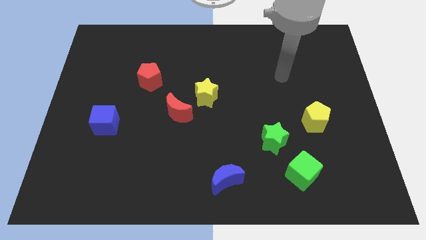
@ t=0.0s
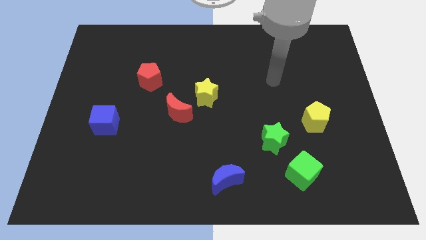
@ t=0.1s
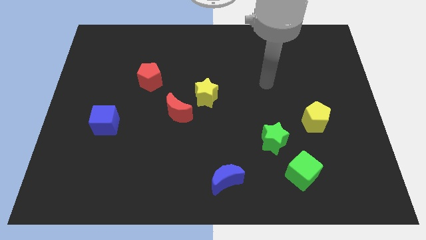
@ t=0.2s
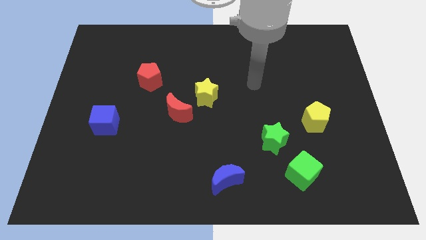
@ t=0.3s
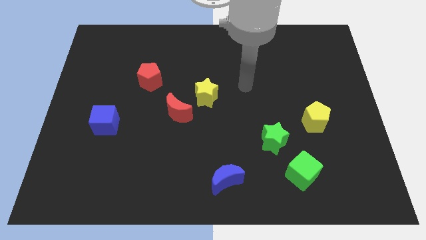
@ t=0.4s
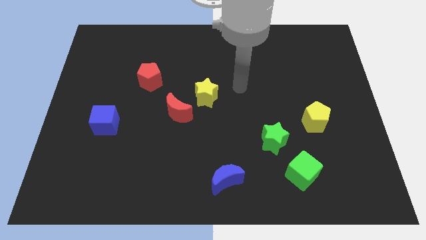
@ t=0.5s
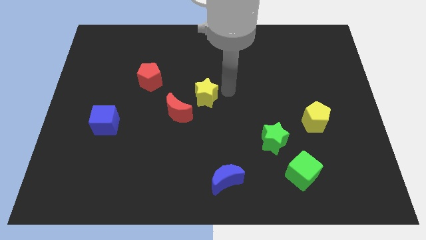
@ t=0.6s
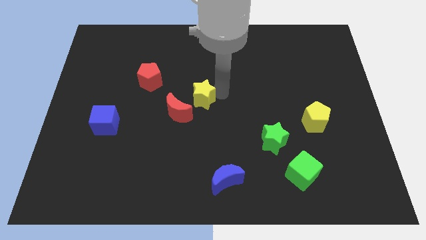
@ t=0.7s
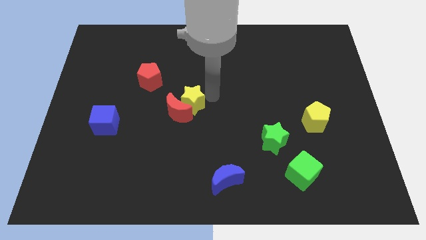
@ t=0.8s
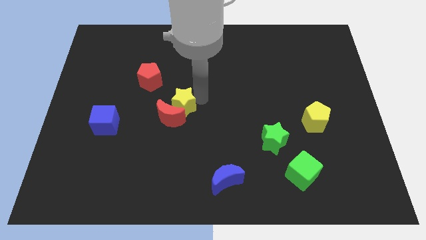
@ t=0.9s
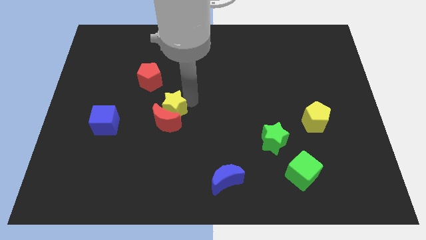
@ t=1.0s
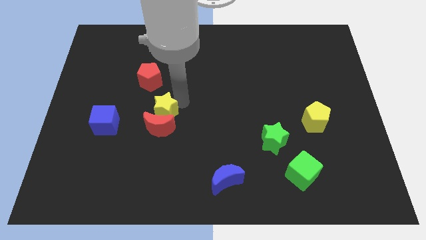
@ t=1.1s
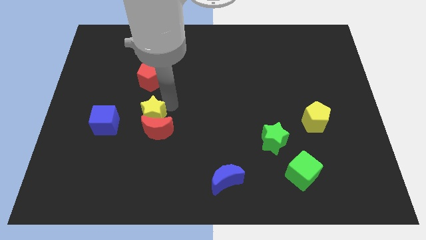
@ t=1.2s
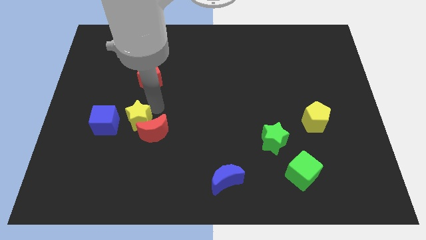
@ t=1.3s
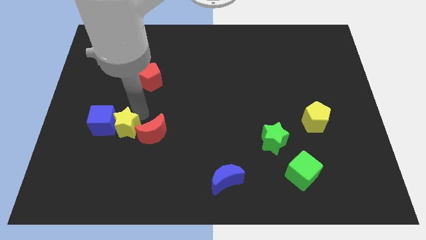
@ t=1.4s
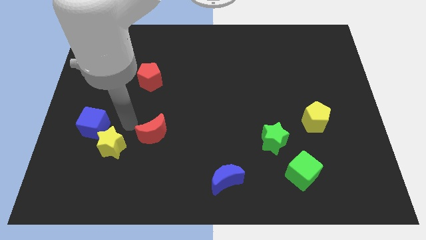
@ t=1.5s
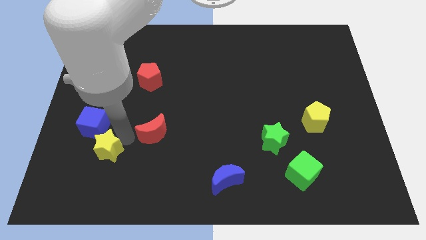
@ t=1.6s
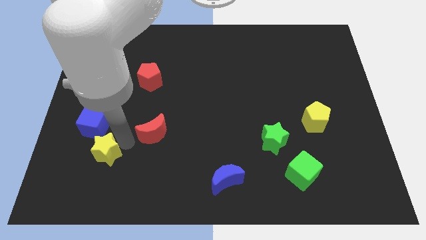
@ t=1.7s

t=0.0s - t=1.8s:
move the red moon away from the yellow star

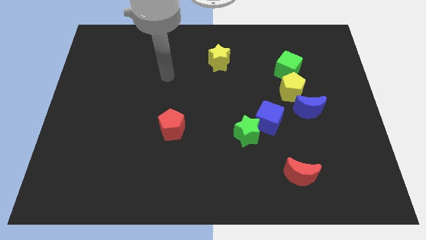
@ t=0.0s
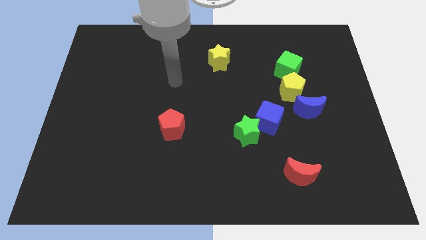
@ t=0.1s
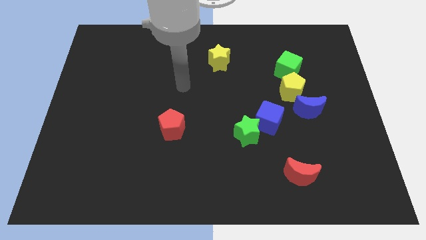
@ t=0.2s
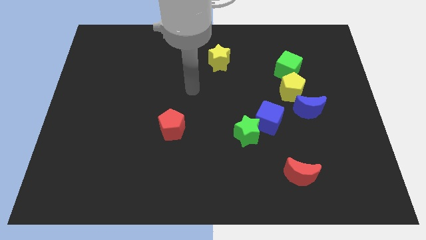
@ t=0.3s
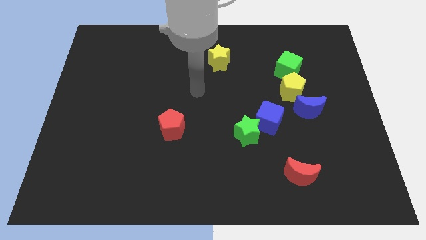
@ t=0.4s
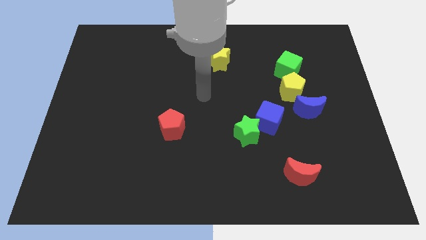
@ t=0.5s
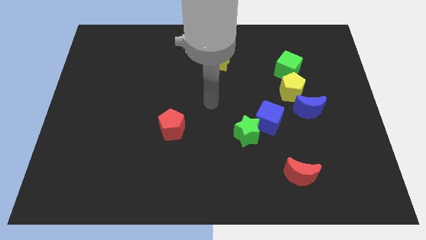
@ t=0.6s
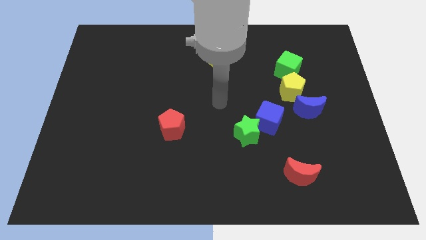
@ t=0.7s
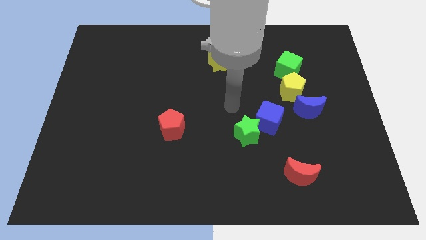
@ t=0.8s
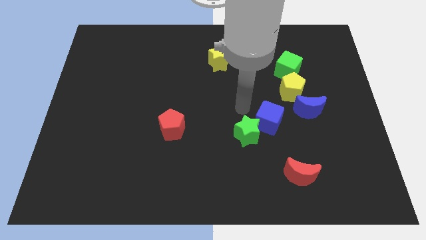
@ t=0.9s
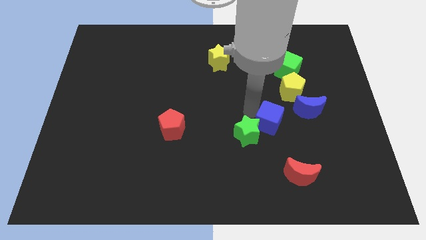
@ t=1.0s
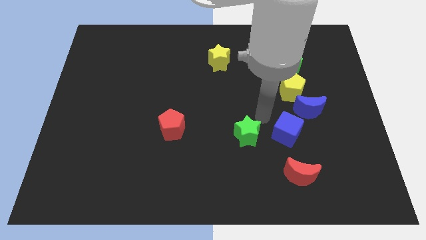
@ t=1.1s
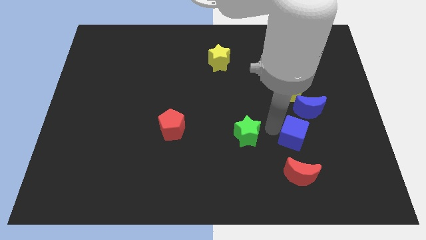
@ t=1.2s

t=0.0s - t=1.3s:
pull the green star apart from the blue cube

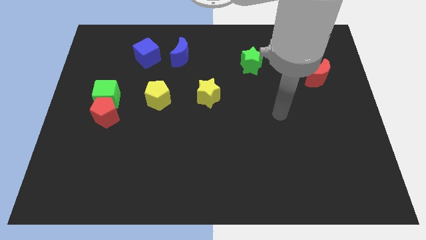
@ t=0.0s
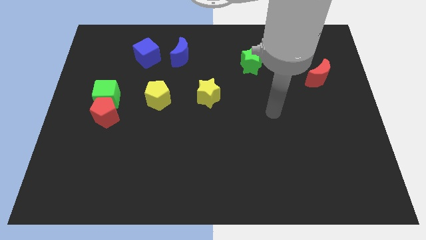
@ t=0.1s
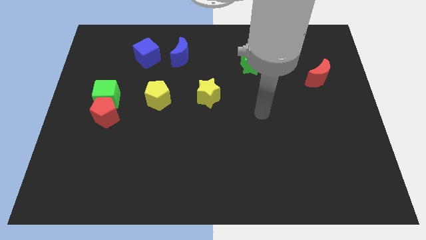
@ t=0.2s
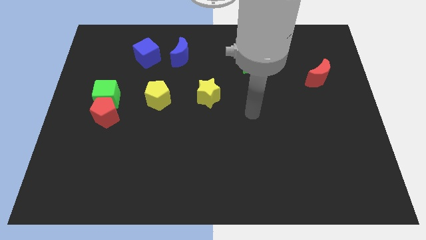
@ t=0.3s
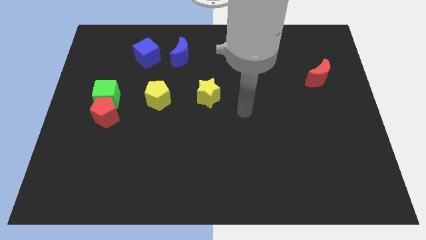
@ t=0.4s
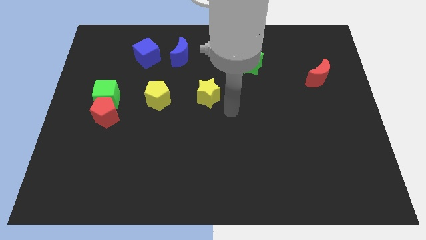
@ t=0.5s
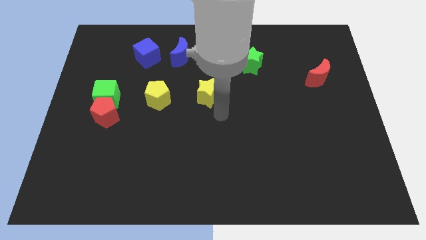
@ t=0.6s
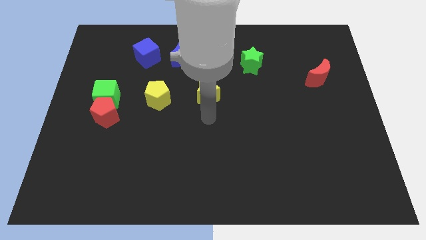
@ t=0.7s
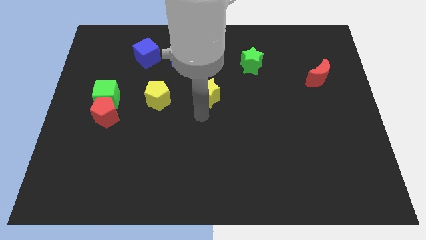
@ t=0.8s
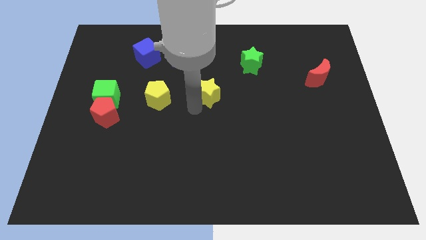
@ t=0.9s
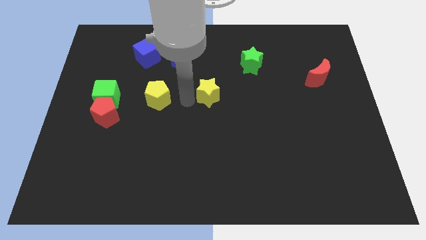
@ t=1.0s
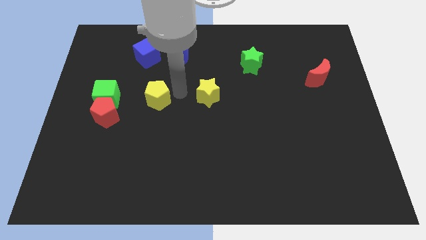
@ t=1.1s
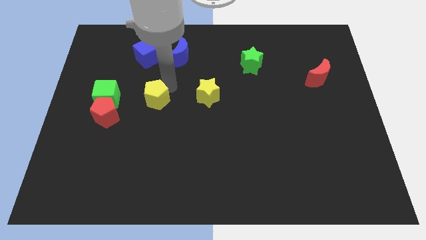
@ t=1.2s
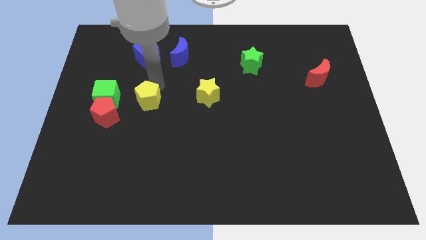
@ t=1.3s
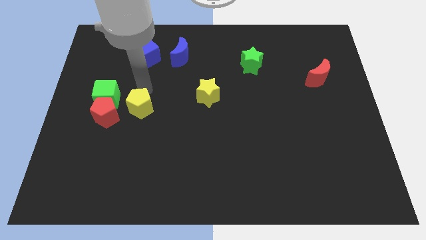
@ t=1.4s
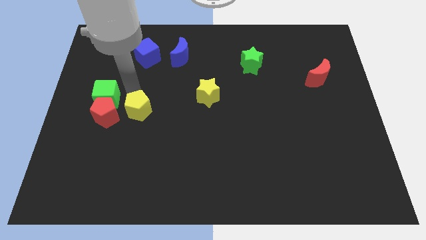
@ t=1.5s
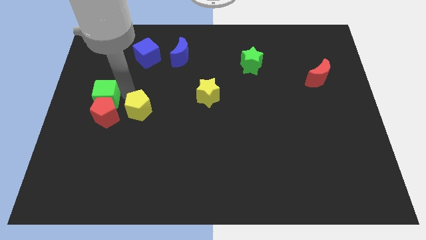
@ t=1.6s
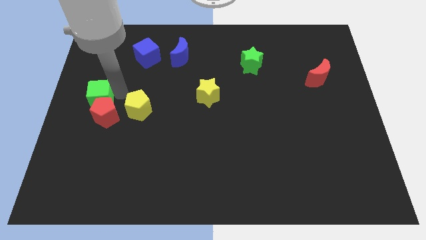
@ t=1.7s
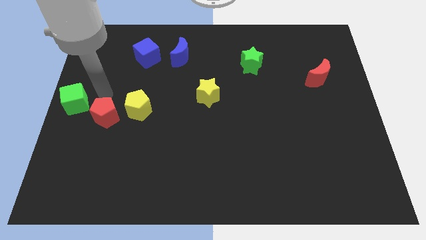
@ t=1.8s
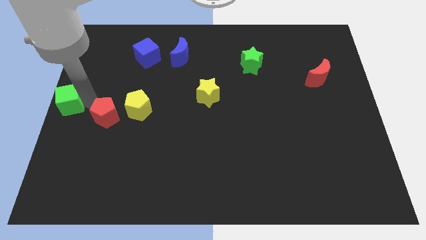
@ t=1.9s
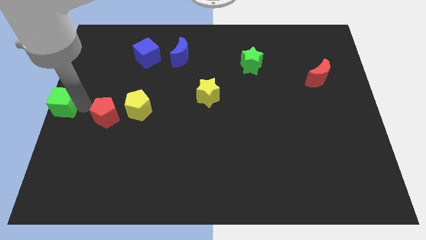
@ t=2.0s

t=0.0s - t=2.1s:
pull the red pentagon apart from the green cube

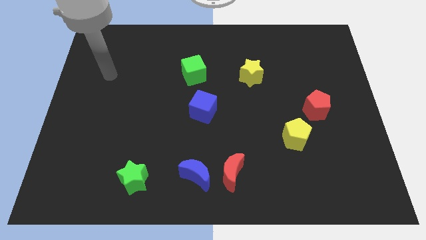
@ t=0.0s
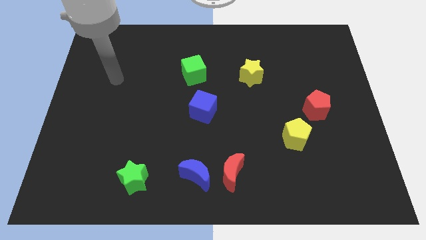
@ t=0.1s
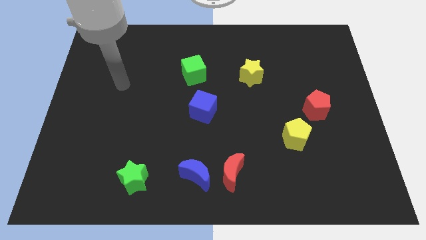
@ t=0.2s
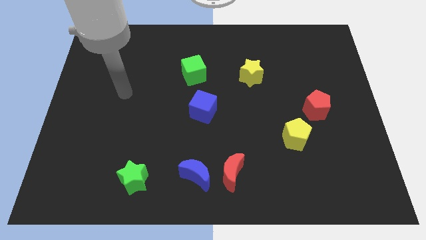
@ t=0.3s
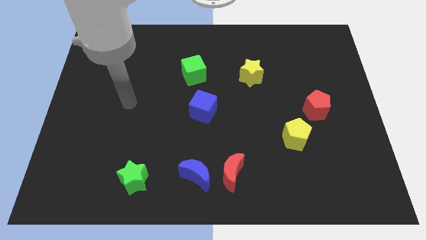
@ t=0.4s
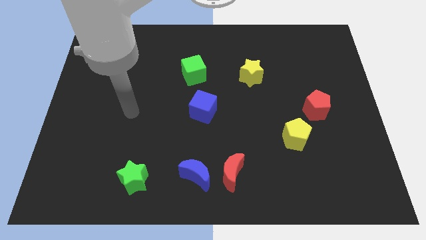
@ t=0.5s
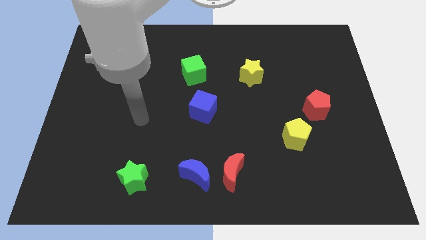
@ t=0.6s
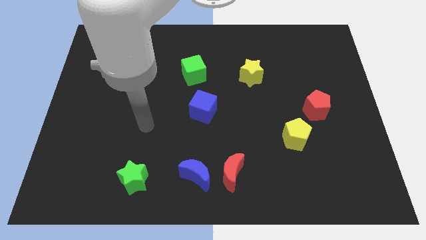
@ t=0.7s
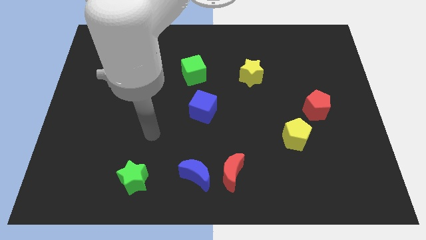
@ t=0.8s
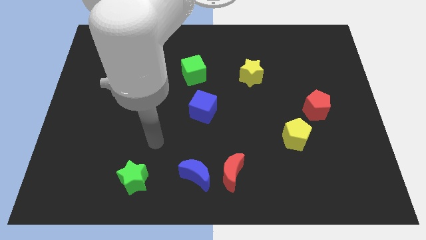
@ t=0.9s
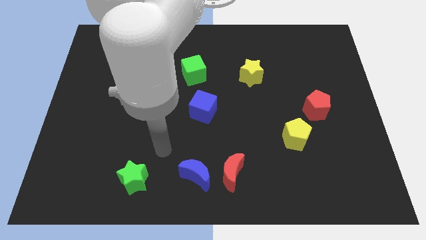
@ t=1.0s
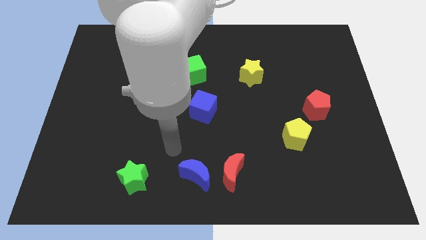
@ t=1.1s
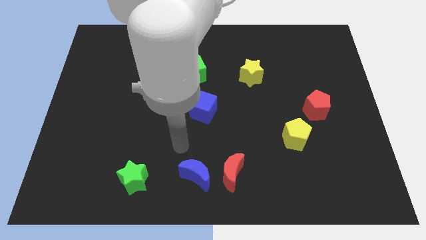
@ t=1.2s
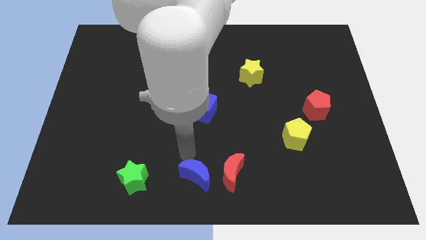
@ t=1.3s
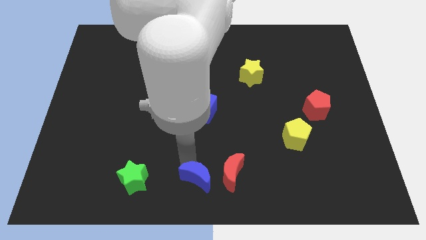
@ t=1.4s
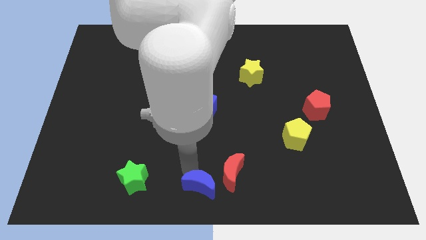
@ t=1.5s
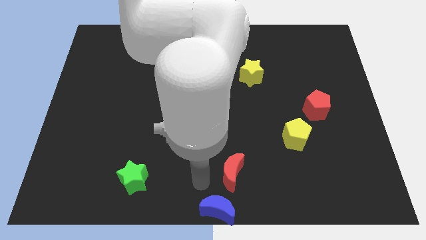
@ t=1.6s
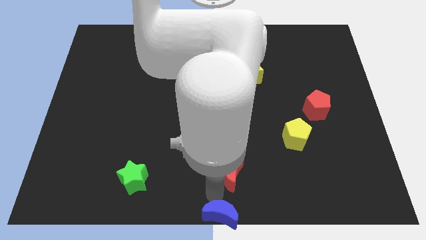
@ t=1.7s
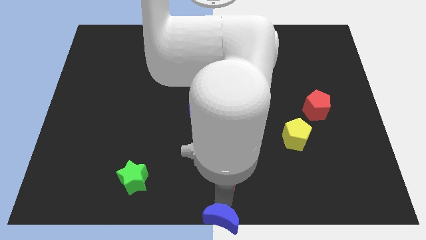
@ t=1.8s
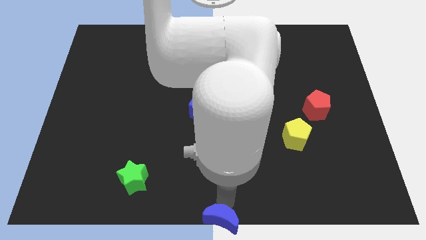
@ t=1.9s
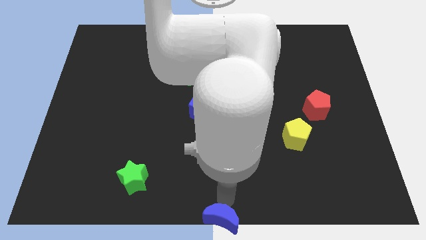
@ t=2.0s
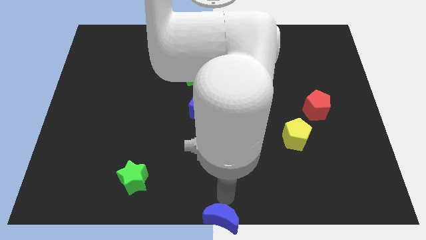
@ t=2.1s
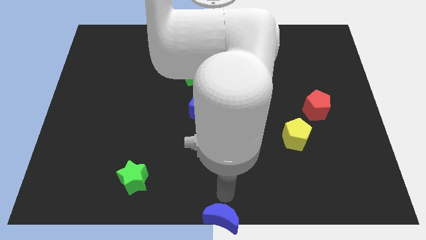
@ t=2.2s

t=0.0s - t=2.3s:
pull the red moon apart from the blue moon

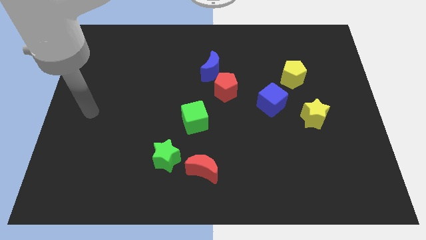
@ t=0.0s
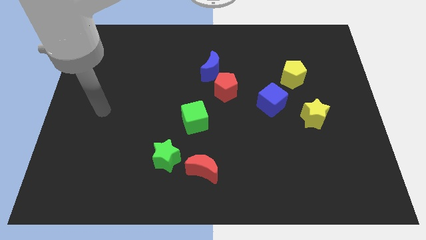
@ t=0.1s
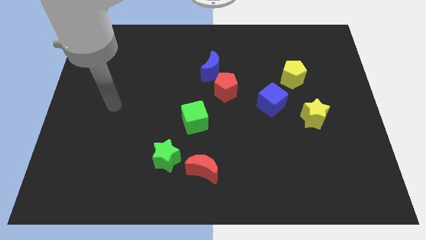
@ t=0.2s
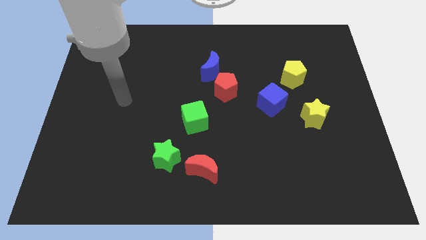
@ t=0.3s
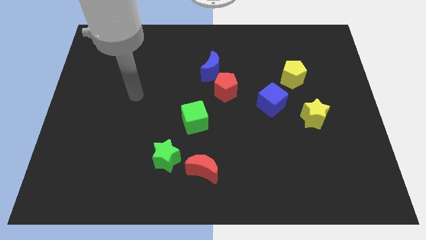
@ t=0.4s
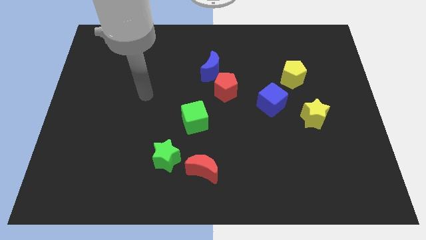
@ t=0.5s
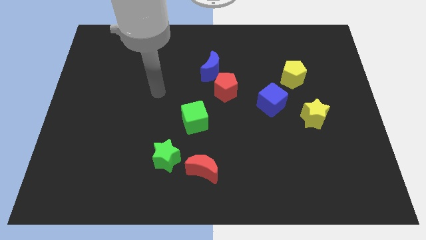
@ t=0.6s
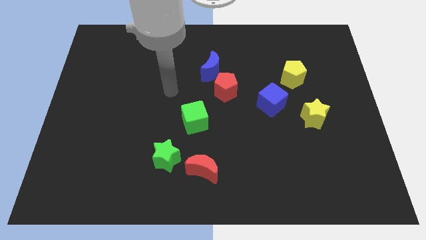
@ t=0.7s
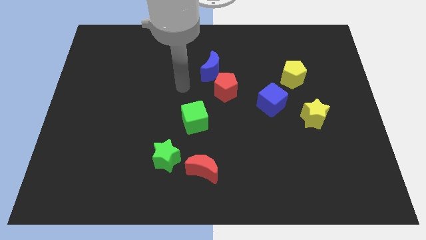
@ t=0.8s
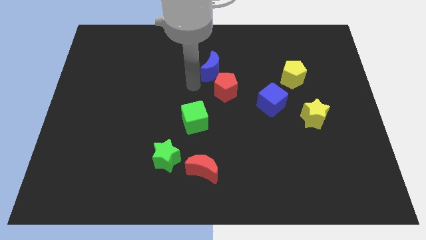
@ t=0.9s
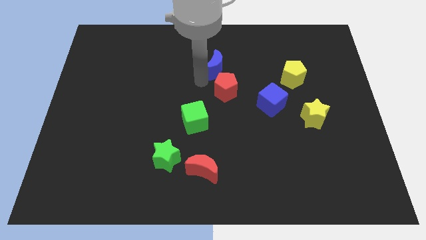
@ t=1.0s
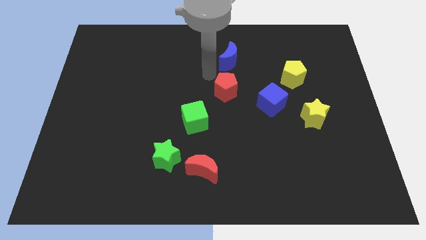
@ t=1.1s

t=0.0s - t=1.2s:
separate the red pentagon from the blue moon

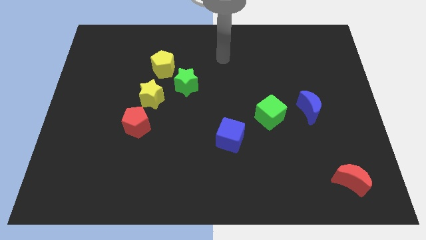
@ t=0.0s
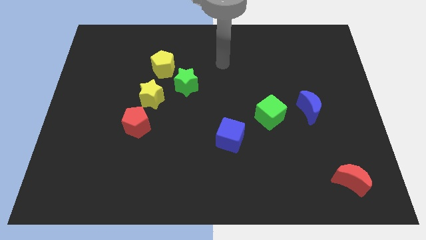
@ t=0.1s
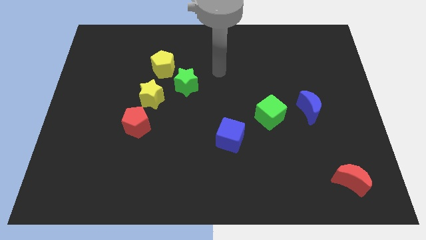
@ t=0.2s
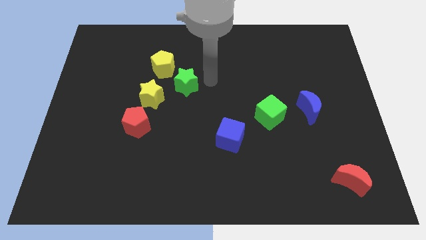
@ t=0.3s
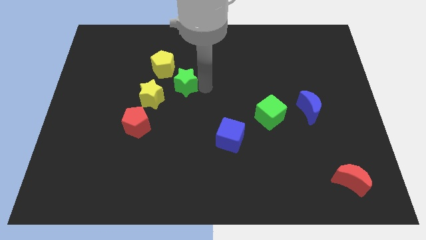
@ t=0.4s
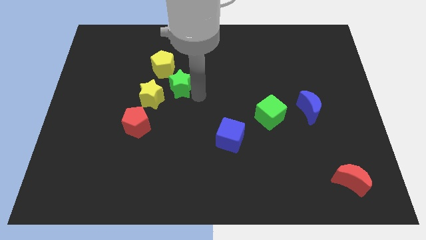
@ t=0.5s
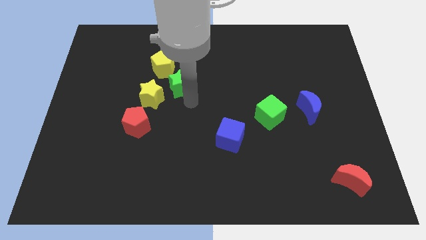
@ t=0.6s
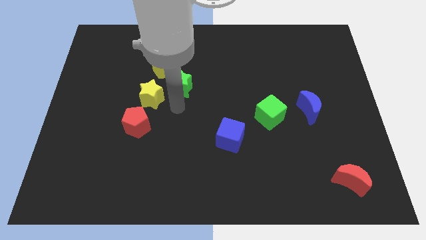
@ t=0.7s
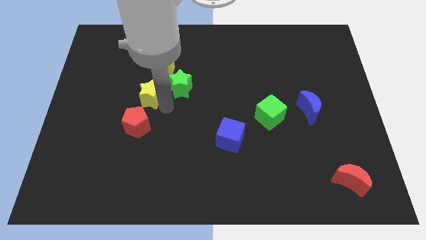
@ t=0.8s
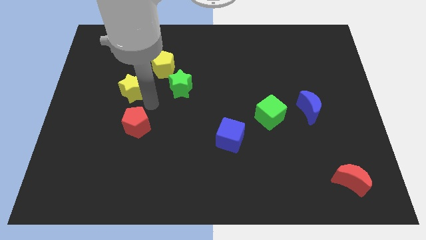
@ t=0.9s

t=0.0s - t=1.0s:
pull the red pentagon apart from the yellow star
